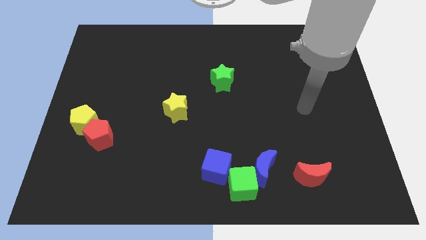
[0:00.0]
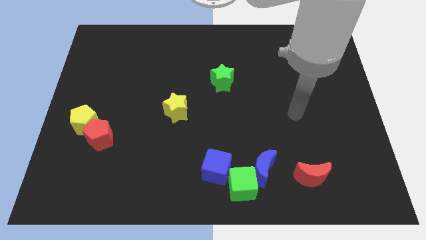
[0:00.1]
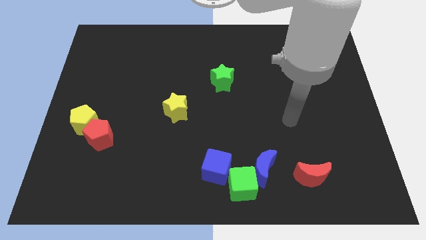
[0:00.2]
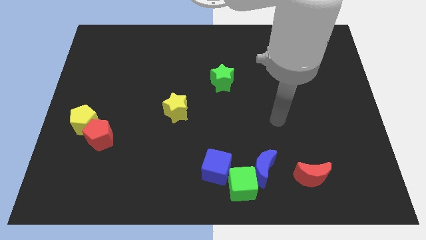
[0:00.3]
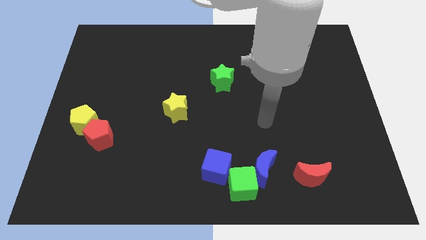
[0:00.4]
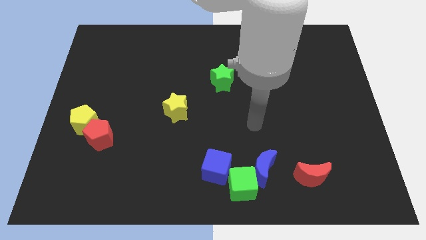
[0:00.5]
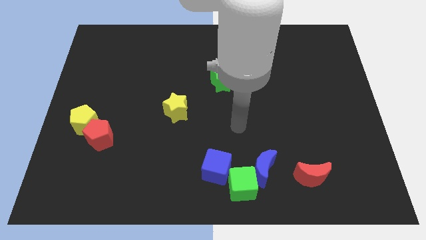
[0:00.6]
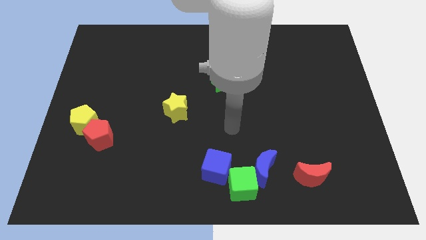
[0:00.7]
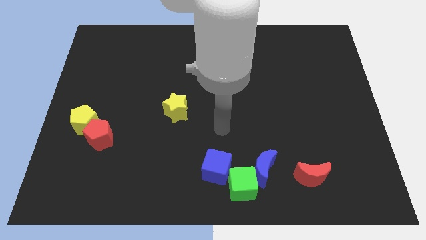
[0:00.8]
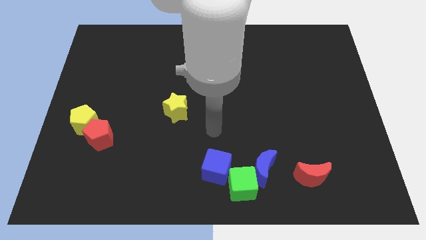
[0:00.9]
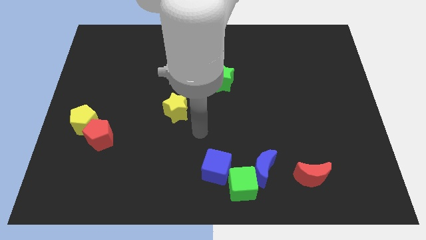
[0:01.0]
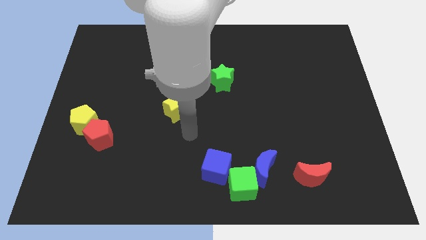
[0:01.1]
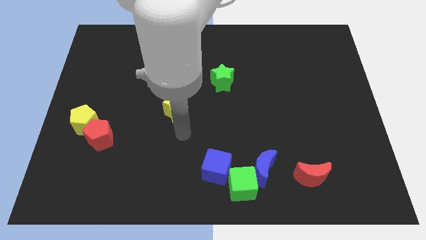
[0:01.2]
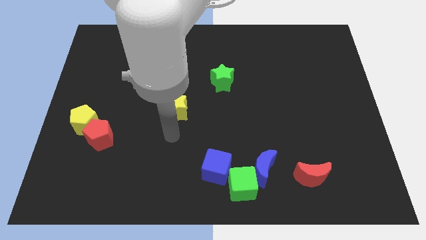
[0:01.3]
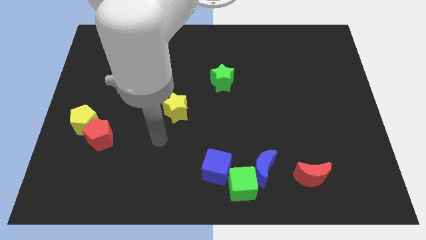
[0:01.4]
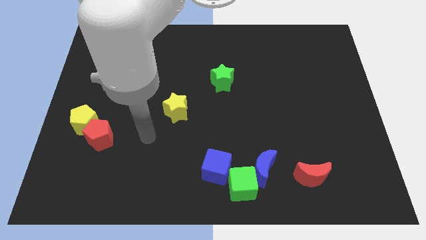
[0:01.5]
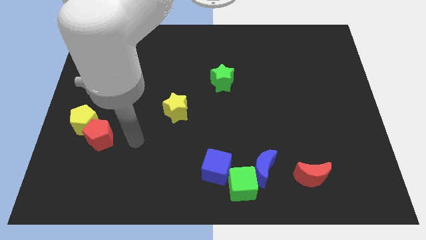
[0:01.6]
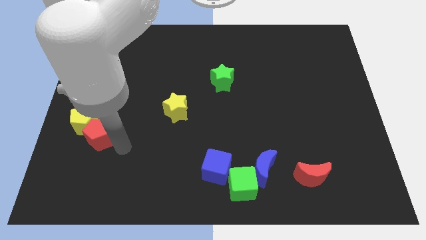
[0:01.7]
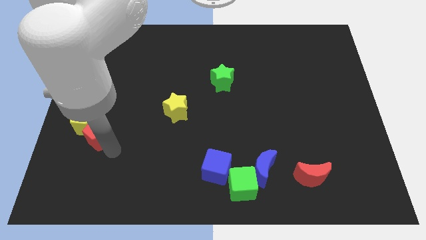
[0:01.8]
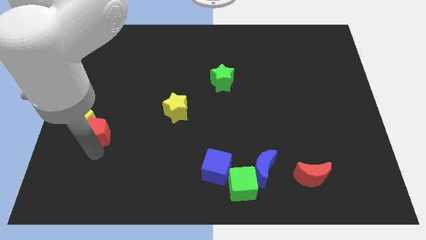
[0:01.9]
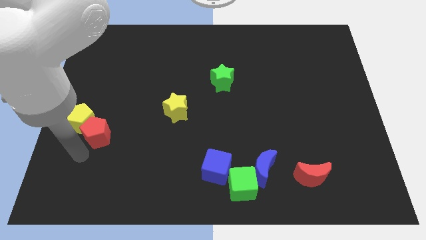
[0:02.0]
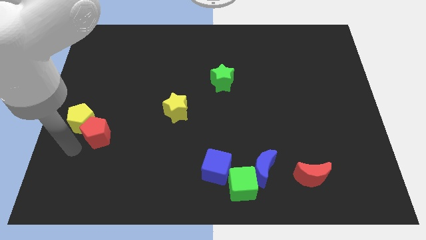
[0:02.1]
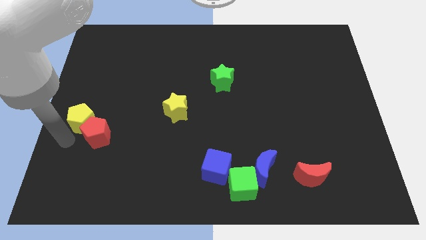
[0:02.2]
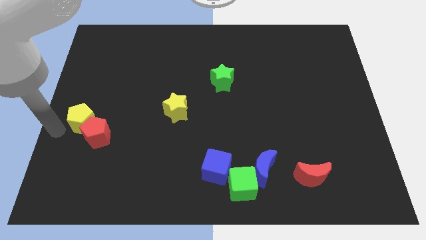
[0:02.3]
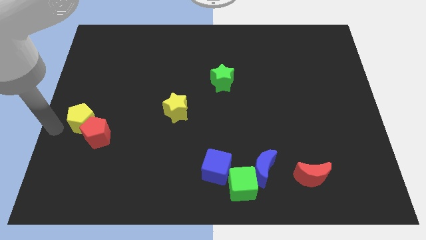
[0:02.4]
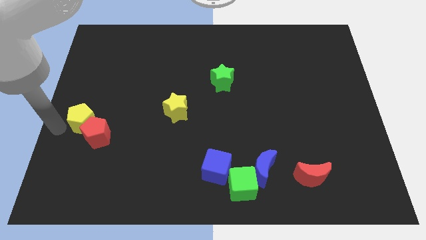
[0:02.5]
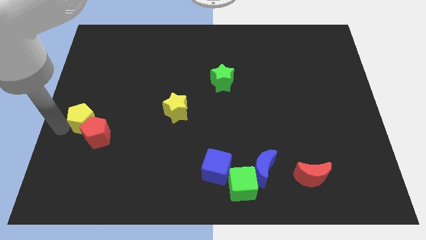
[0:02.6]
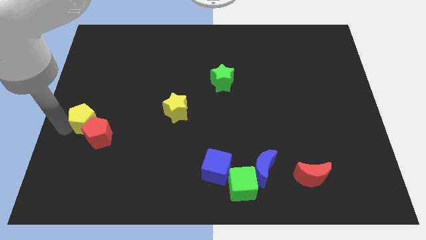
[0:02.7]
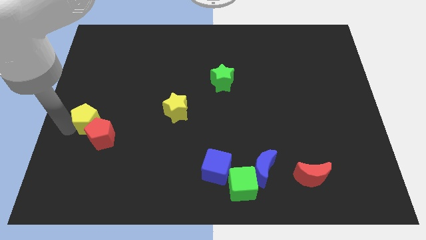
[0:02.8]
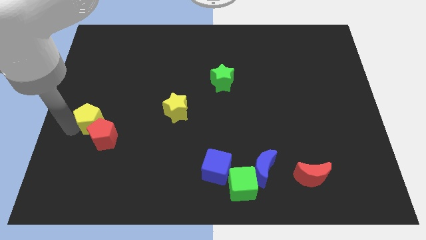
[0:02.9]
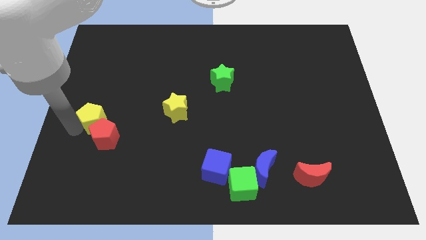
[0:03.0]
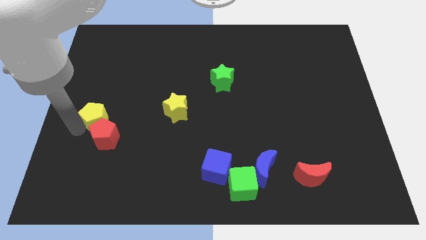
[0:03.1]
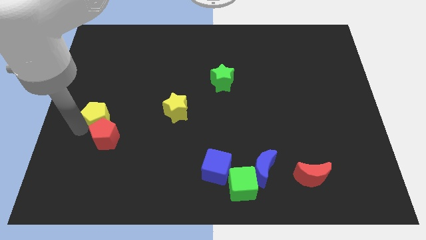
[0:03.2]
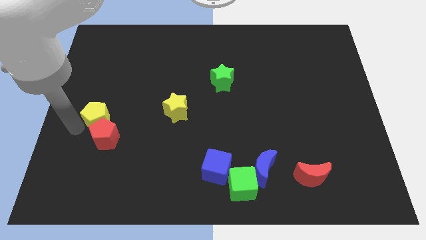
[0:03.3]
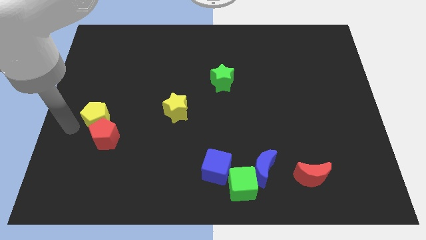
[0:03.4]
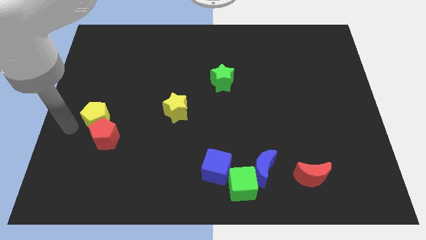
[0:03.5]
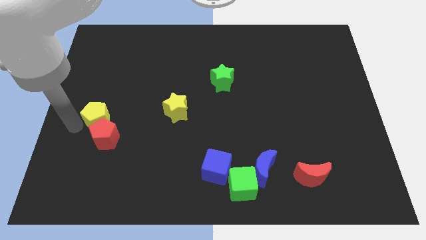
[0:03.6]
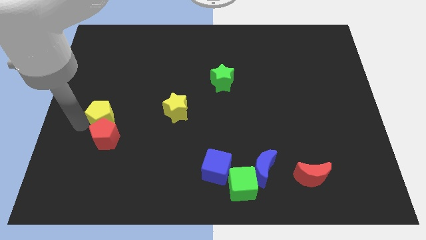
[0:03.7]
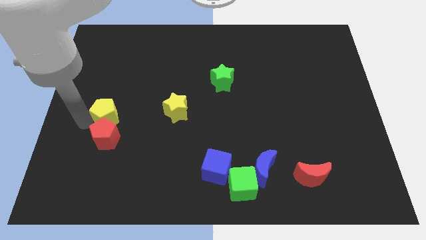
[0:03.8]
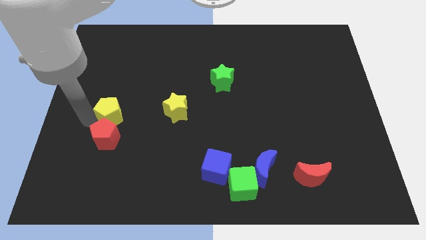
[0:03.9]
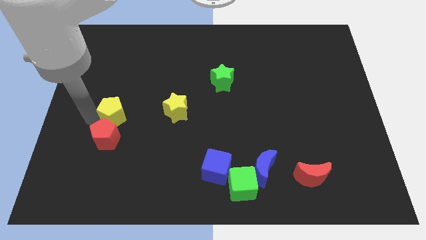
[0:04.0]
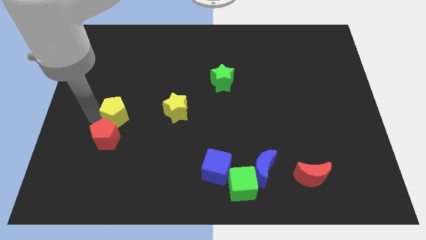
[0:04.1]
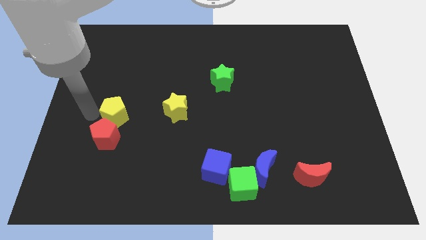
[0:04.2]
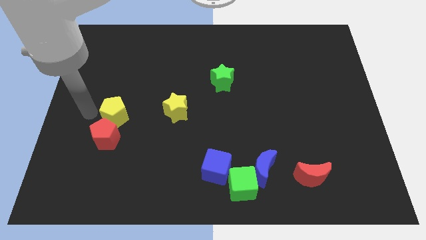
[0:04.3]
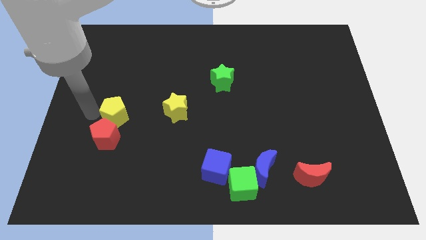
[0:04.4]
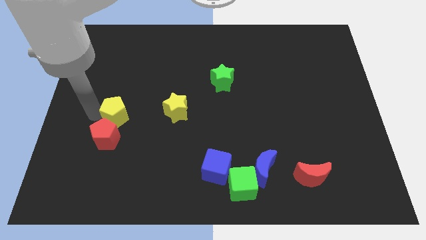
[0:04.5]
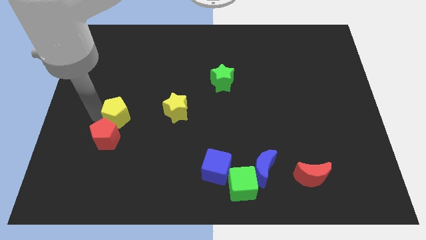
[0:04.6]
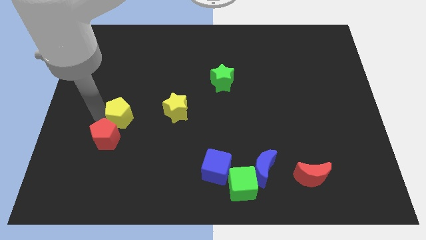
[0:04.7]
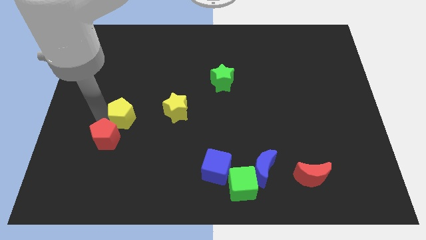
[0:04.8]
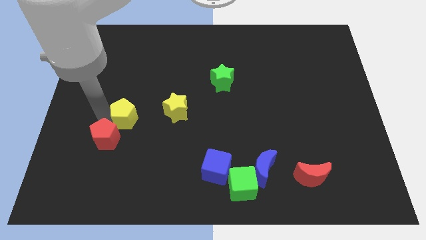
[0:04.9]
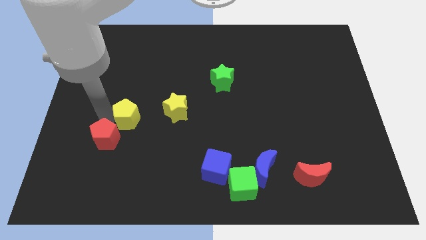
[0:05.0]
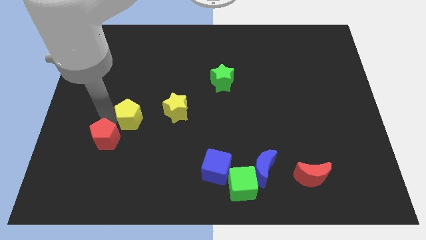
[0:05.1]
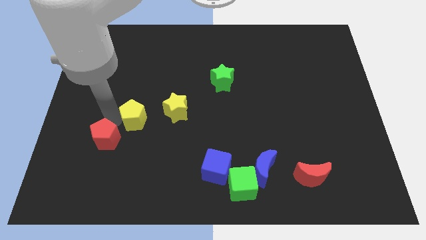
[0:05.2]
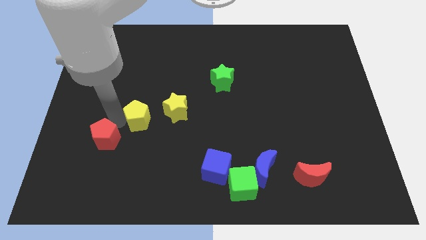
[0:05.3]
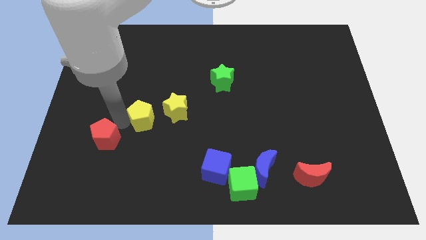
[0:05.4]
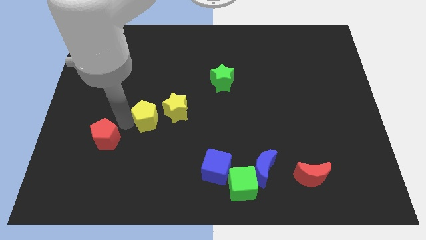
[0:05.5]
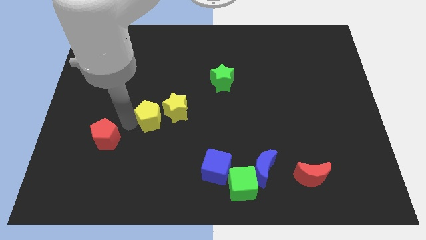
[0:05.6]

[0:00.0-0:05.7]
push the yellow pentagon next to the yellow star

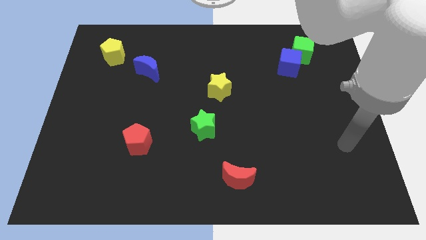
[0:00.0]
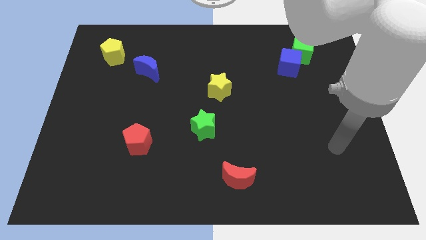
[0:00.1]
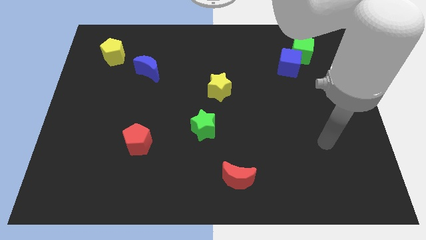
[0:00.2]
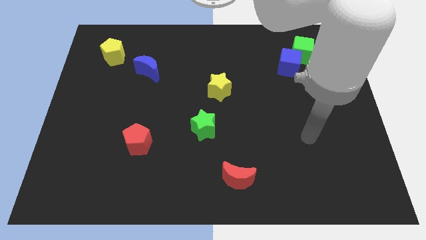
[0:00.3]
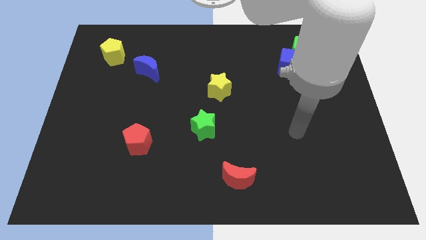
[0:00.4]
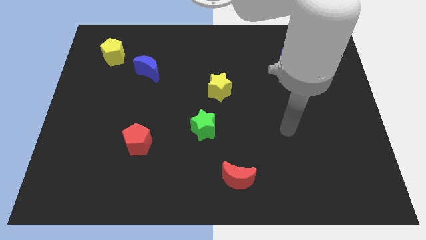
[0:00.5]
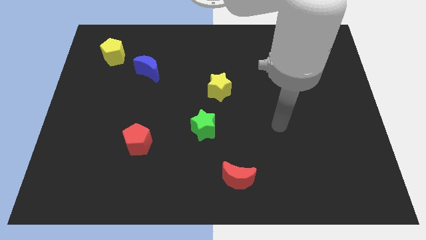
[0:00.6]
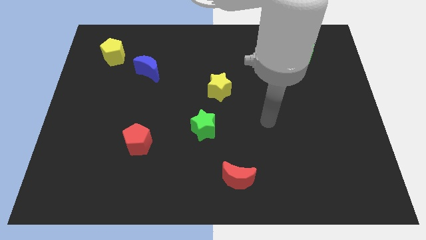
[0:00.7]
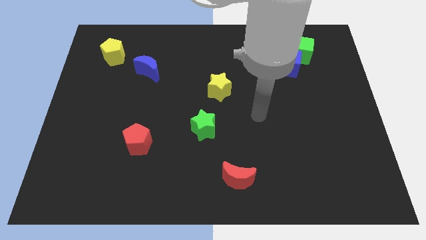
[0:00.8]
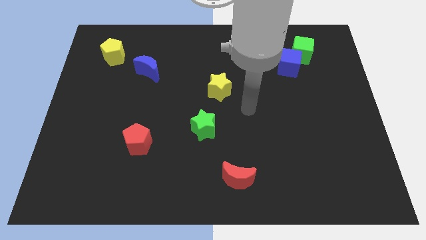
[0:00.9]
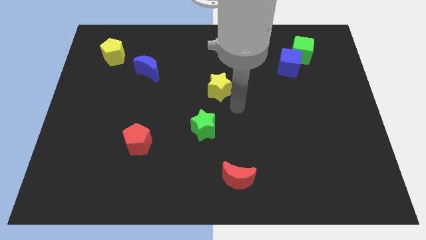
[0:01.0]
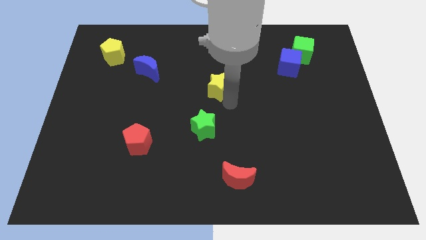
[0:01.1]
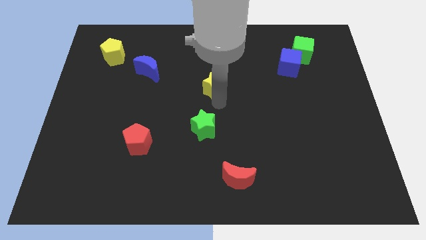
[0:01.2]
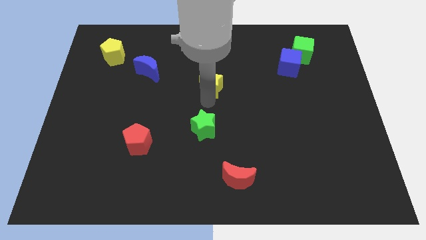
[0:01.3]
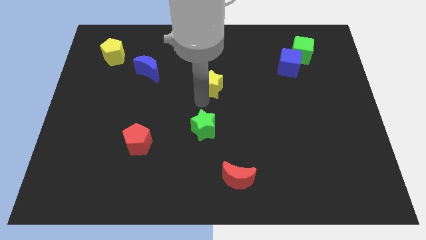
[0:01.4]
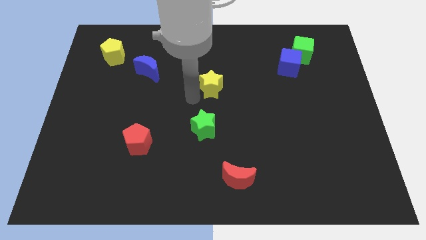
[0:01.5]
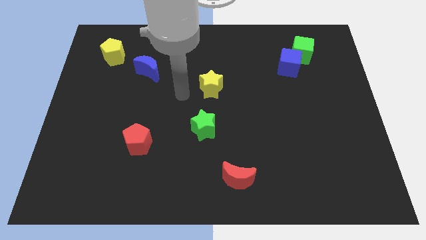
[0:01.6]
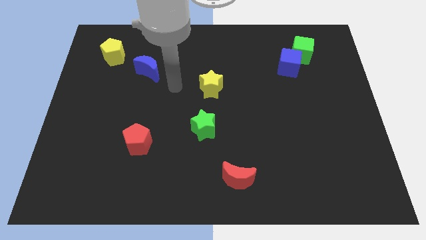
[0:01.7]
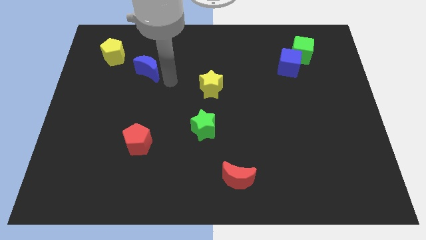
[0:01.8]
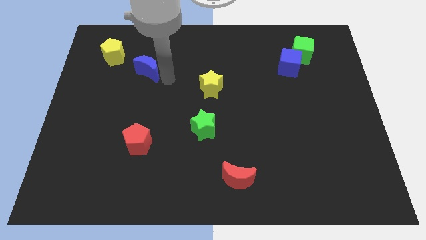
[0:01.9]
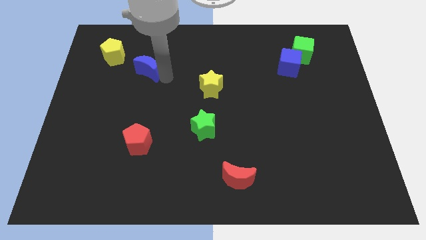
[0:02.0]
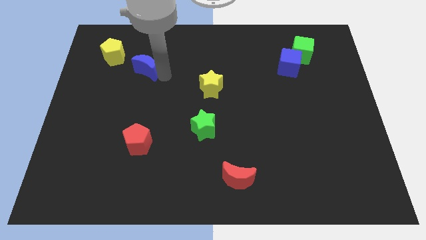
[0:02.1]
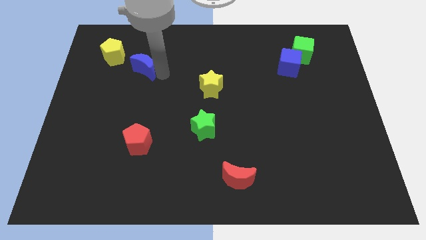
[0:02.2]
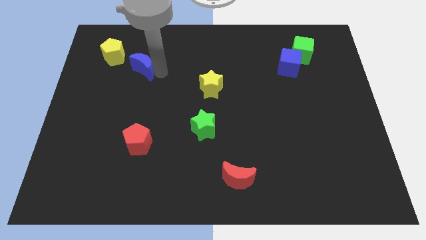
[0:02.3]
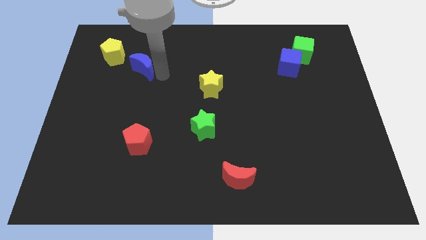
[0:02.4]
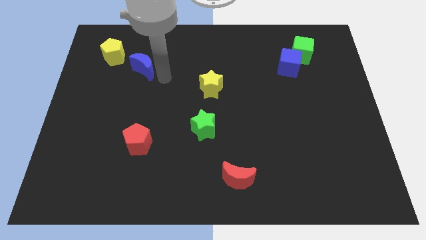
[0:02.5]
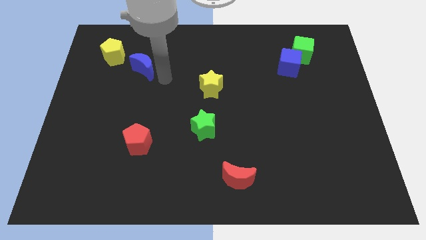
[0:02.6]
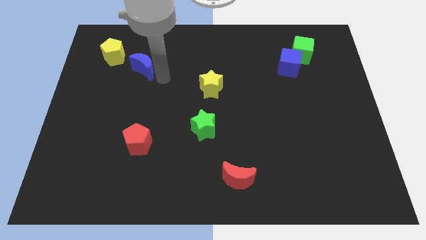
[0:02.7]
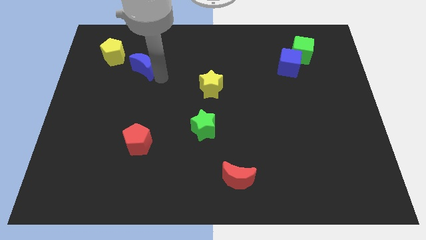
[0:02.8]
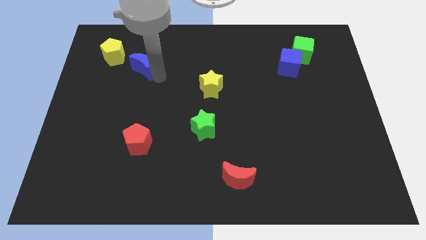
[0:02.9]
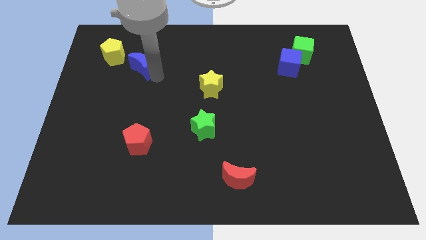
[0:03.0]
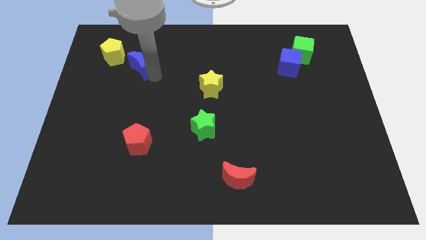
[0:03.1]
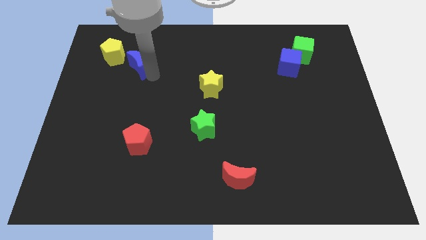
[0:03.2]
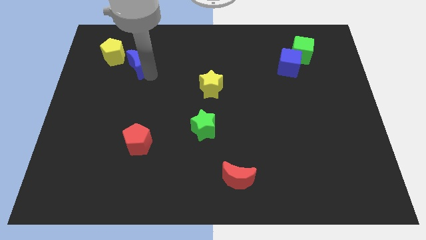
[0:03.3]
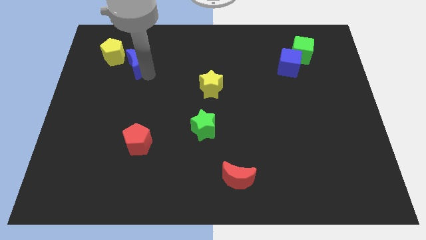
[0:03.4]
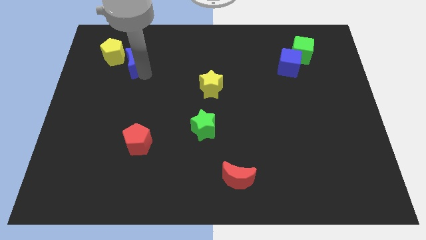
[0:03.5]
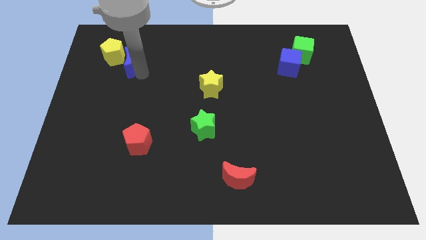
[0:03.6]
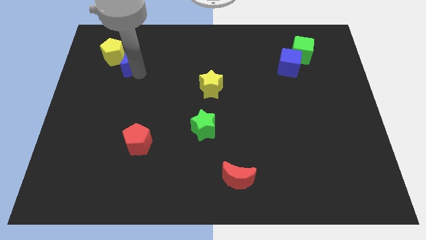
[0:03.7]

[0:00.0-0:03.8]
push the blue moon close to the yellow pentagon
